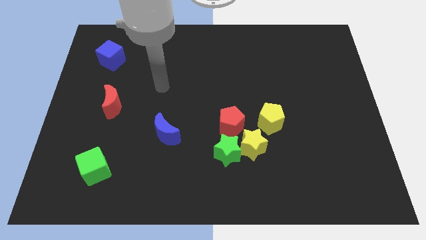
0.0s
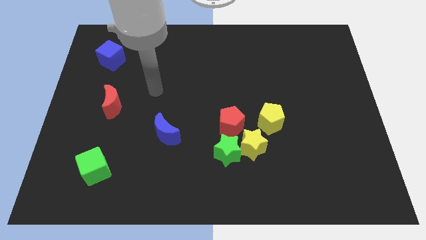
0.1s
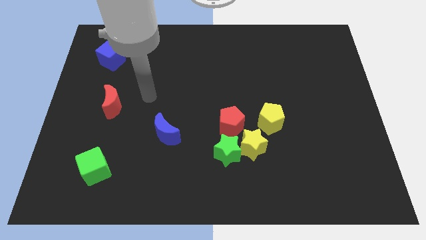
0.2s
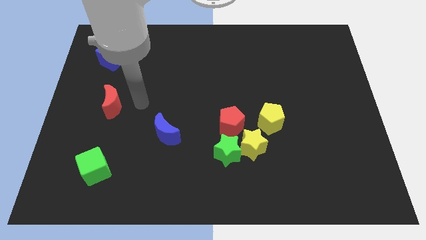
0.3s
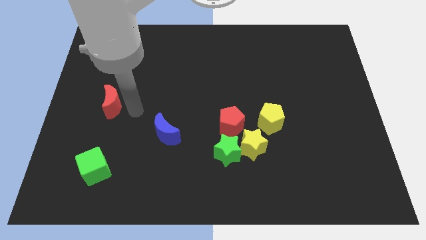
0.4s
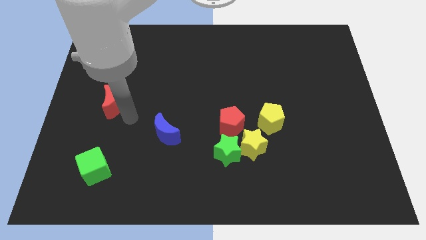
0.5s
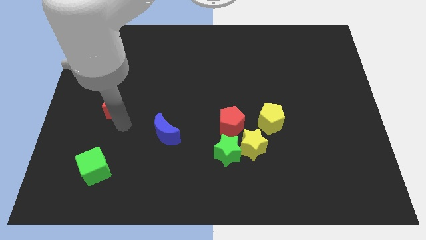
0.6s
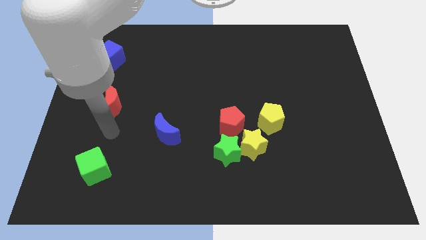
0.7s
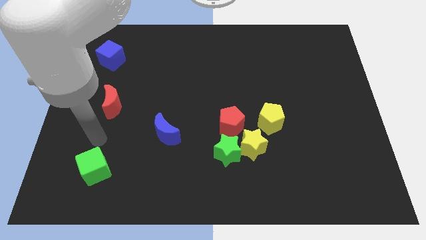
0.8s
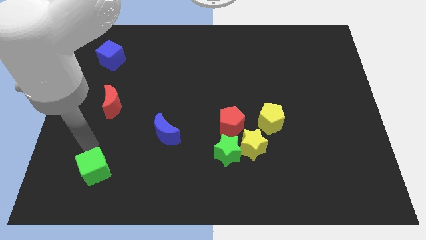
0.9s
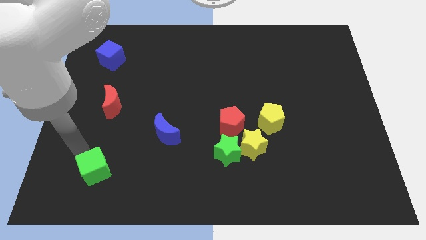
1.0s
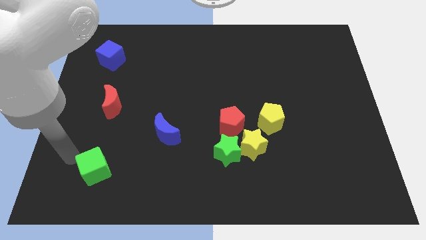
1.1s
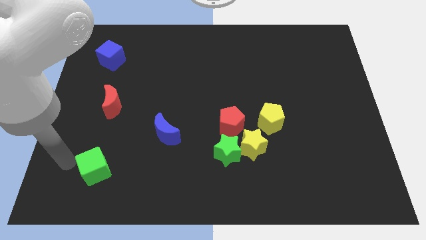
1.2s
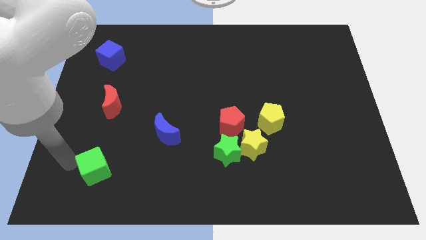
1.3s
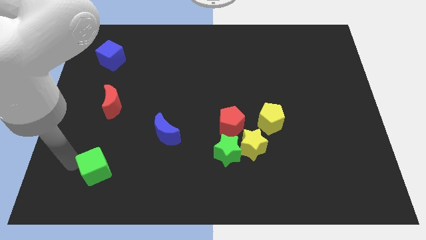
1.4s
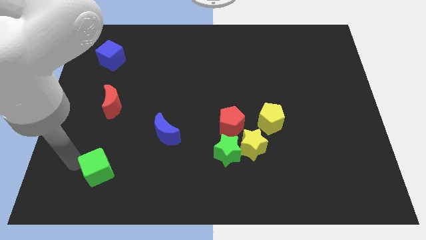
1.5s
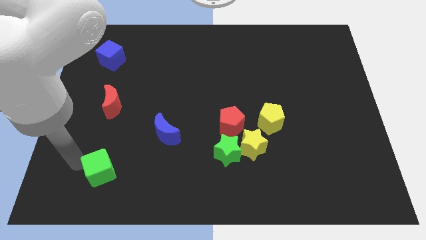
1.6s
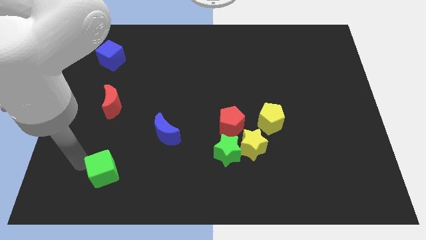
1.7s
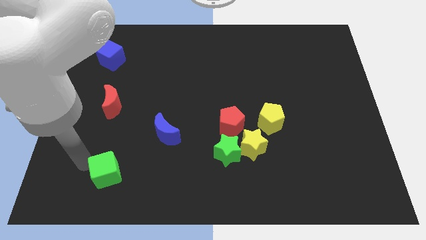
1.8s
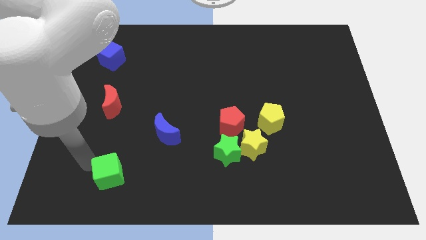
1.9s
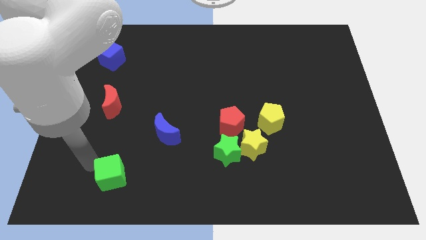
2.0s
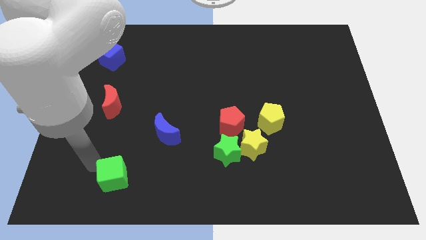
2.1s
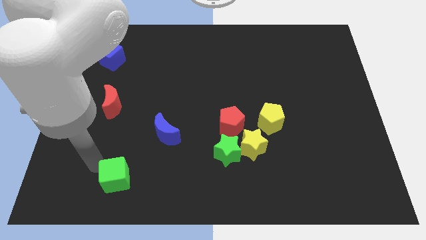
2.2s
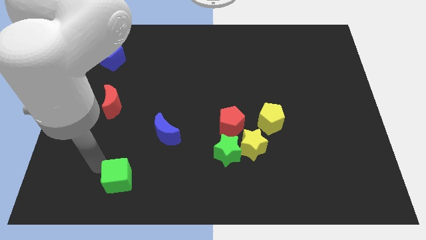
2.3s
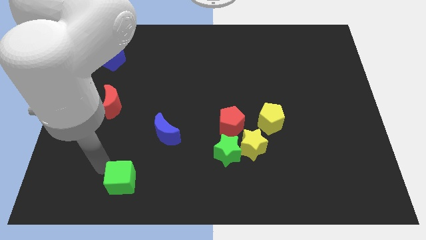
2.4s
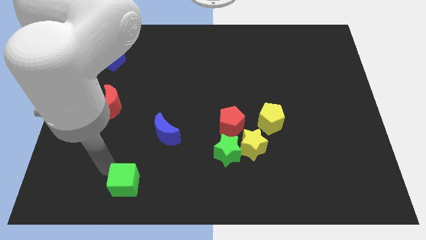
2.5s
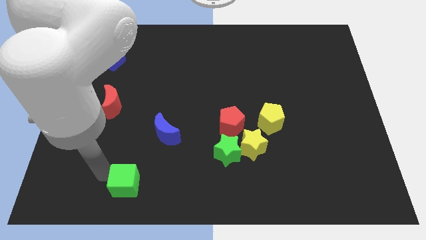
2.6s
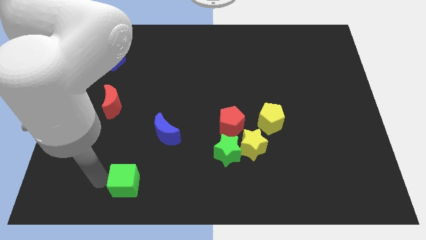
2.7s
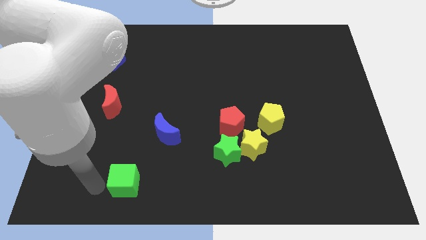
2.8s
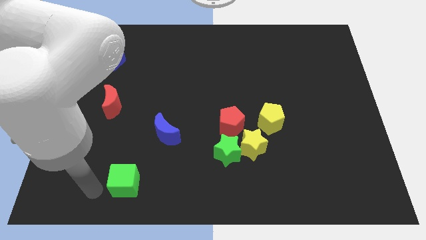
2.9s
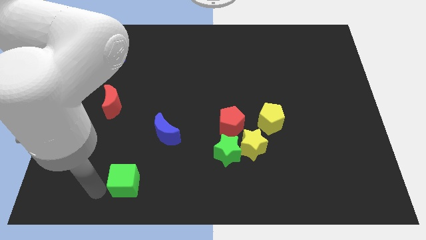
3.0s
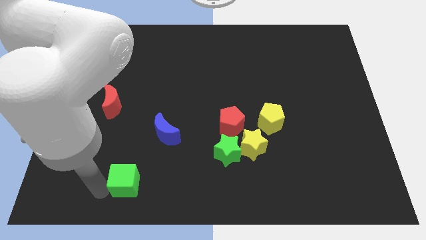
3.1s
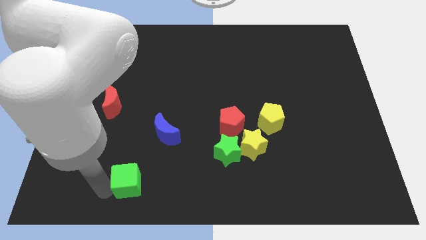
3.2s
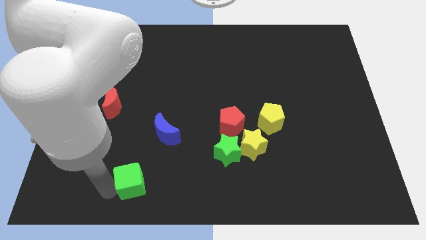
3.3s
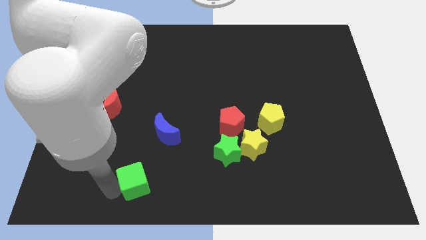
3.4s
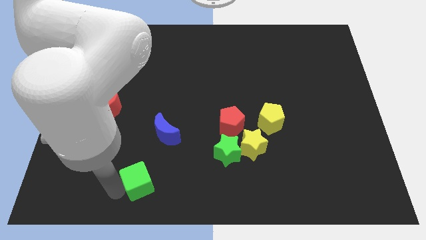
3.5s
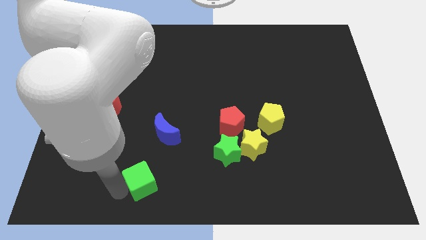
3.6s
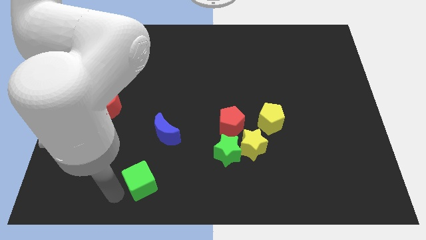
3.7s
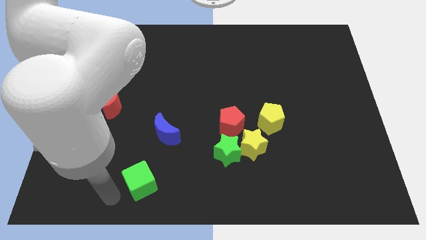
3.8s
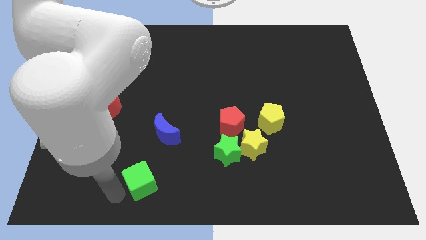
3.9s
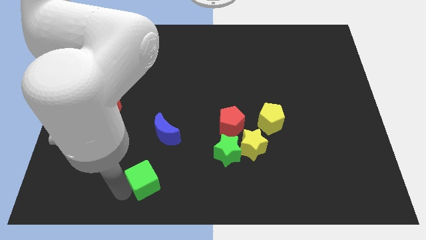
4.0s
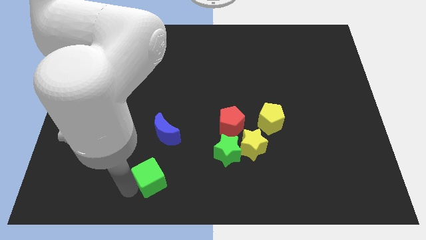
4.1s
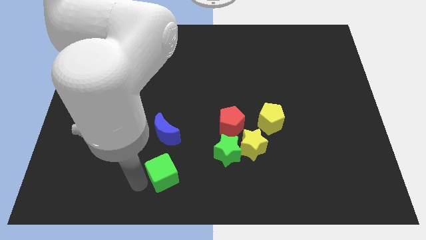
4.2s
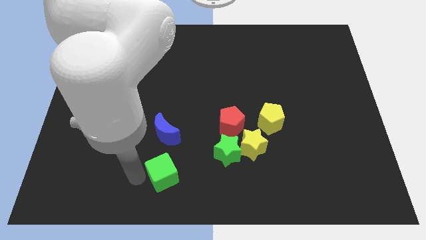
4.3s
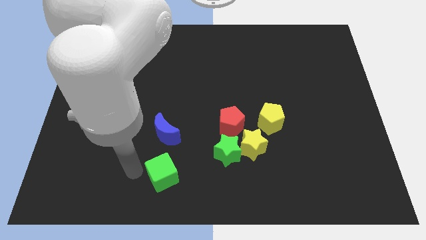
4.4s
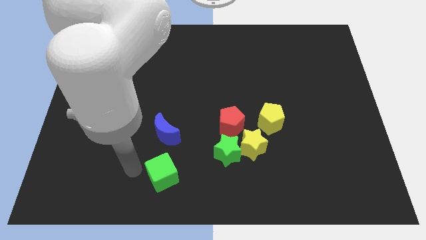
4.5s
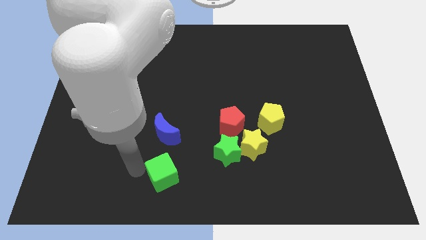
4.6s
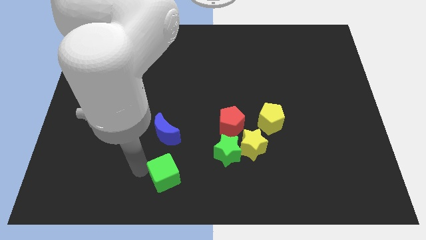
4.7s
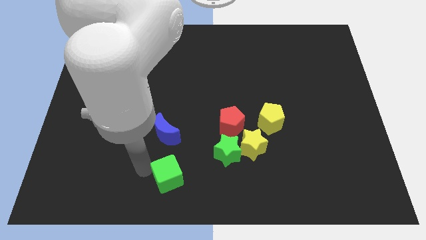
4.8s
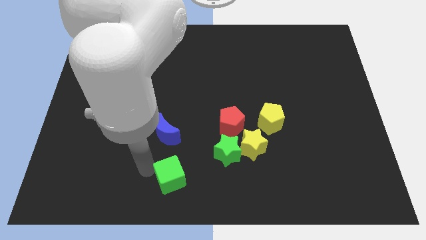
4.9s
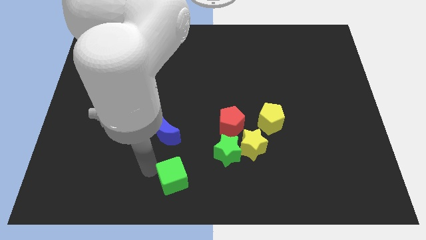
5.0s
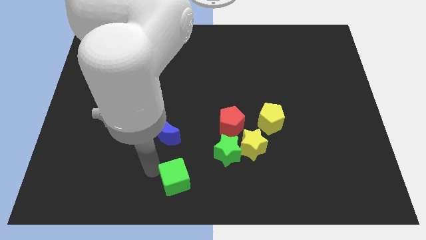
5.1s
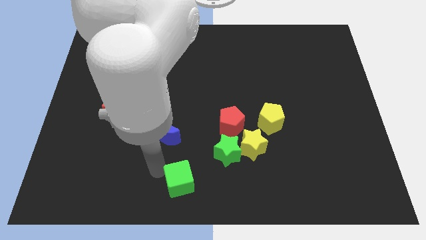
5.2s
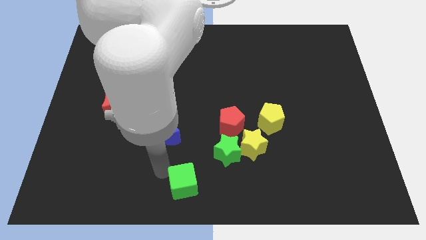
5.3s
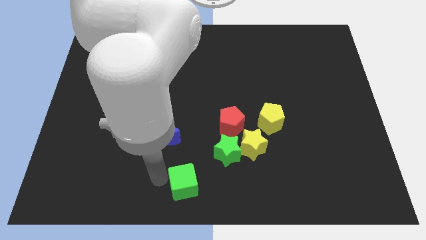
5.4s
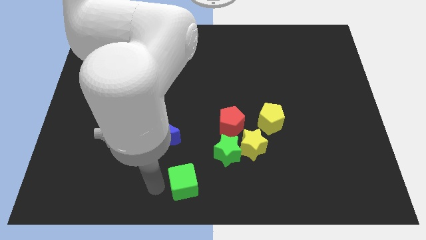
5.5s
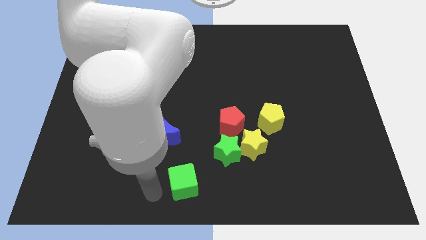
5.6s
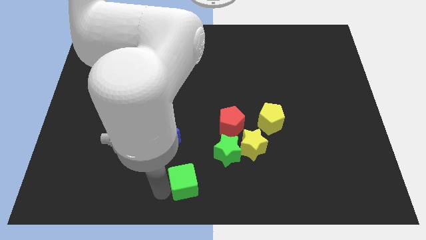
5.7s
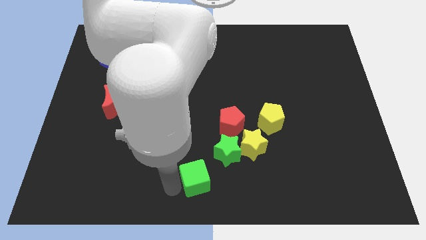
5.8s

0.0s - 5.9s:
push the green cube right

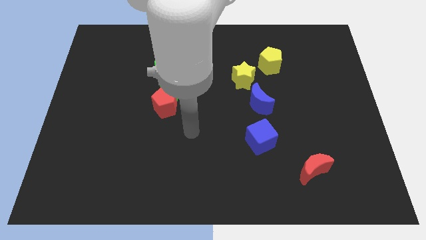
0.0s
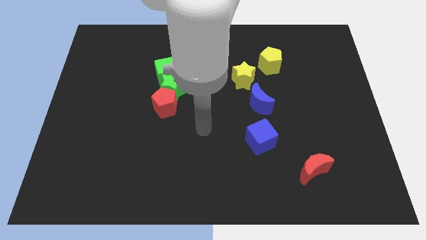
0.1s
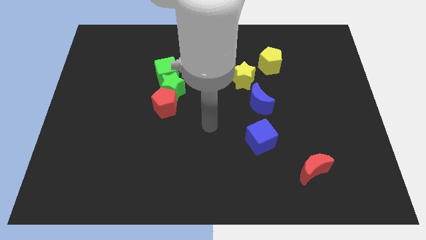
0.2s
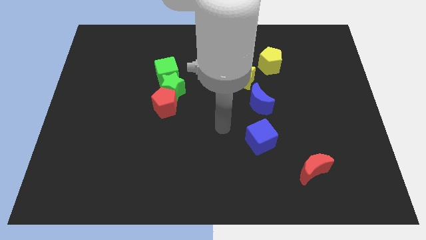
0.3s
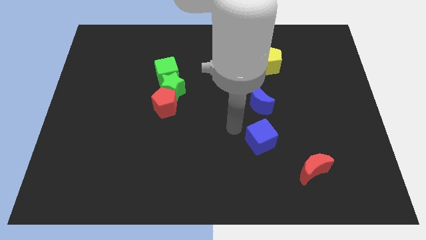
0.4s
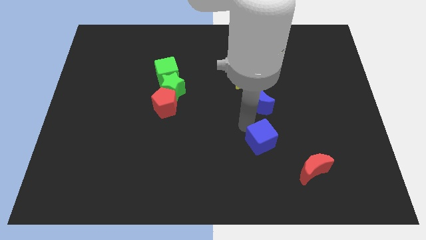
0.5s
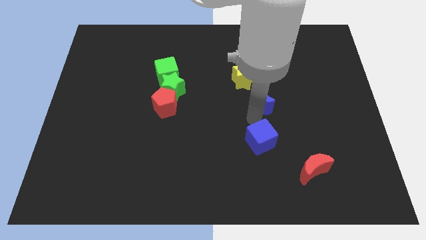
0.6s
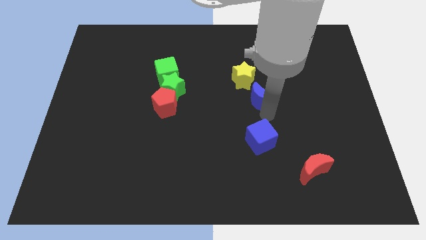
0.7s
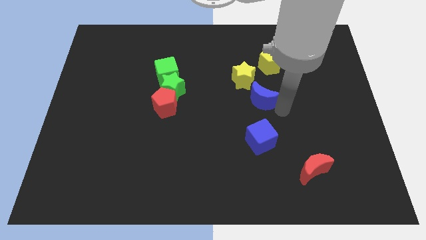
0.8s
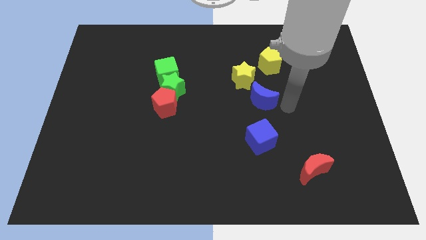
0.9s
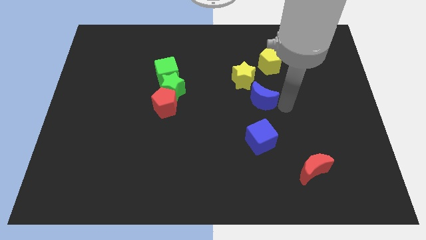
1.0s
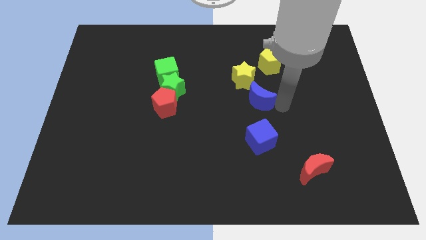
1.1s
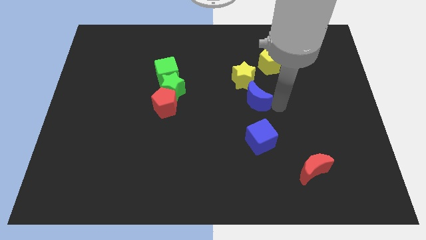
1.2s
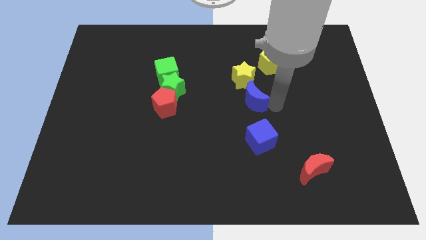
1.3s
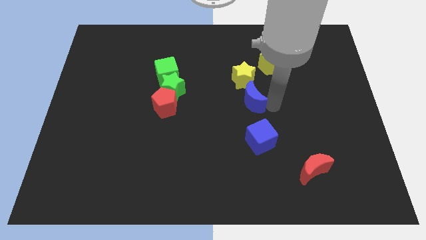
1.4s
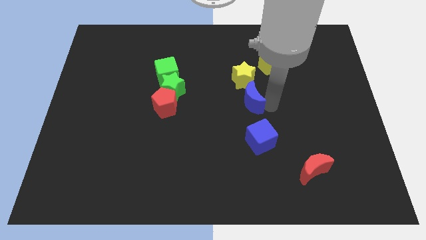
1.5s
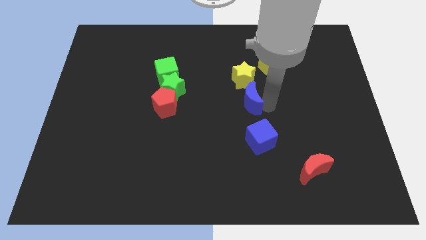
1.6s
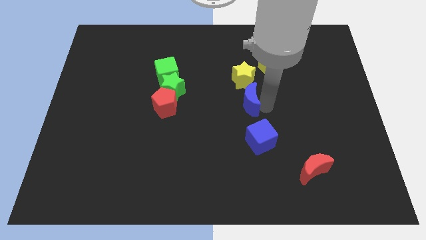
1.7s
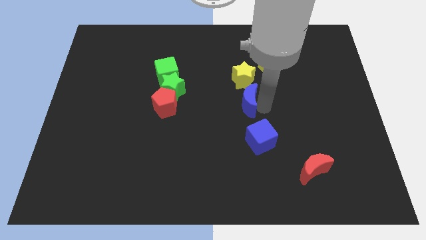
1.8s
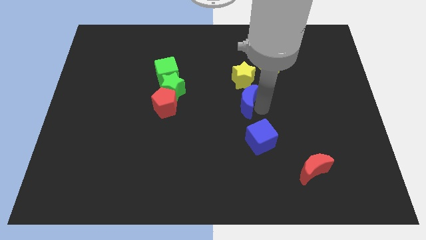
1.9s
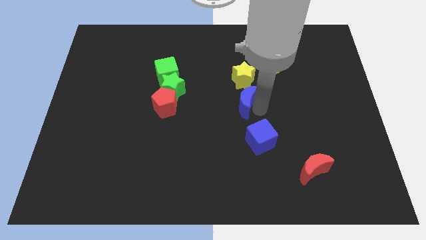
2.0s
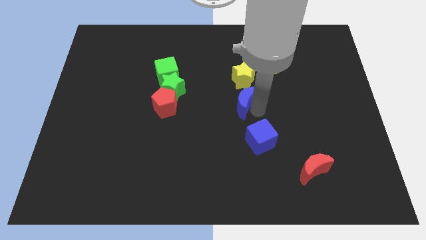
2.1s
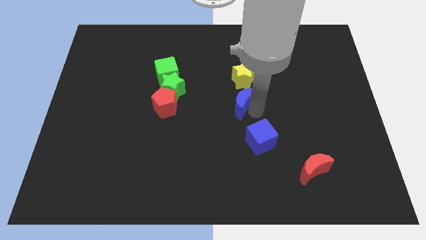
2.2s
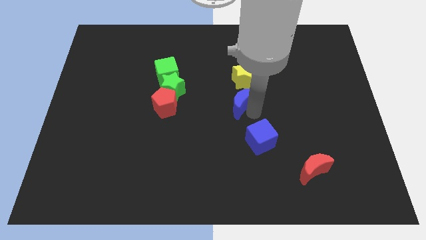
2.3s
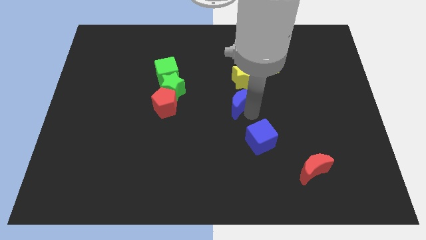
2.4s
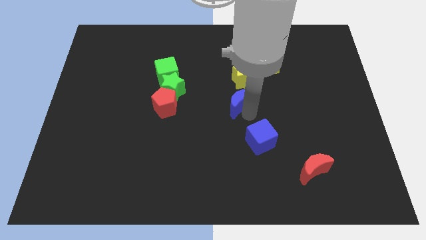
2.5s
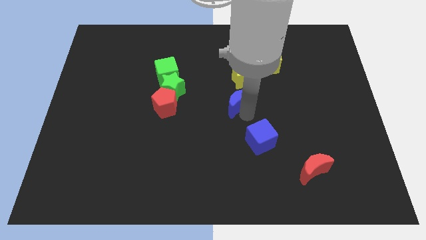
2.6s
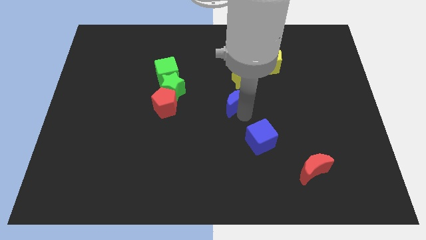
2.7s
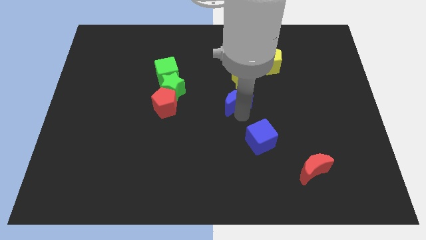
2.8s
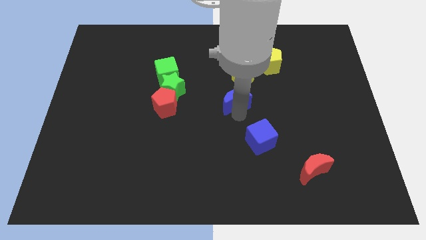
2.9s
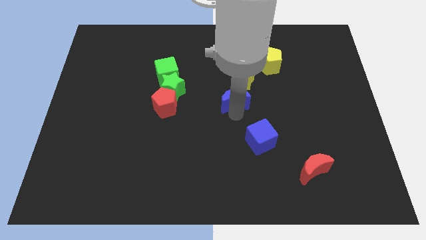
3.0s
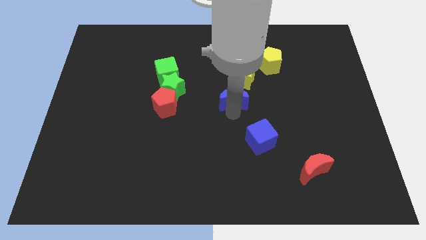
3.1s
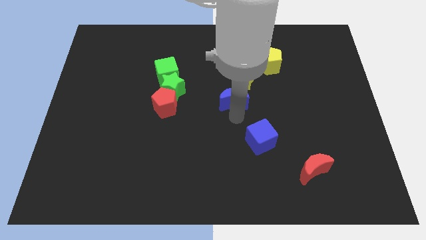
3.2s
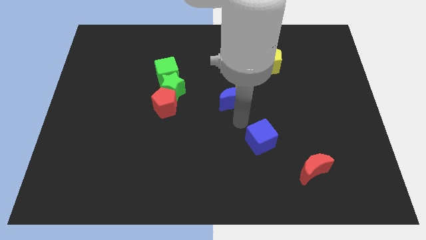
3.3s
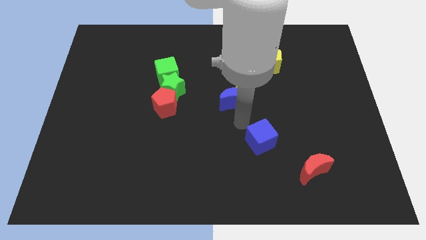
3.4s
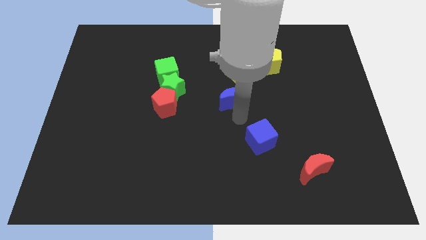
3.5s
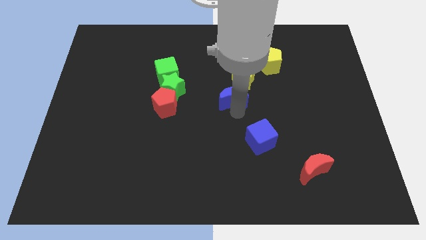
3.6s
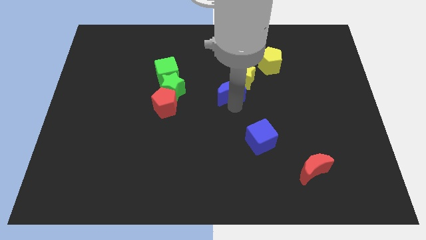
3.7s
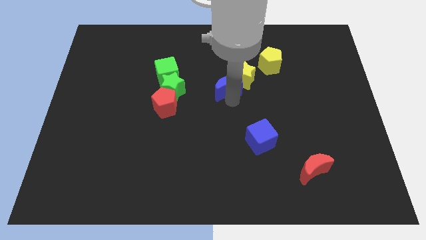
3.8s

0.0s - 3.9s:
push the blue moon up and to the left a bit
